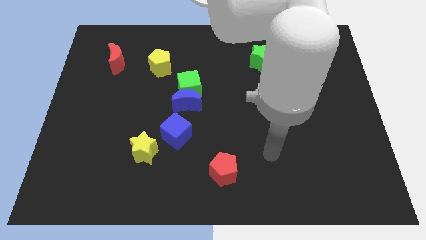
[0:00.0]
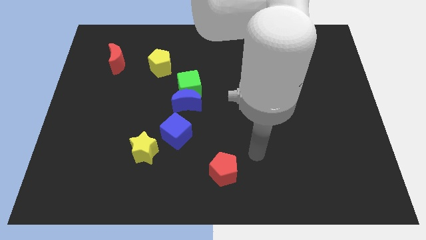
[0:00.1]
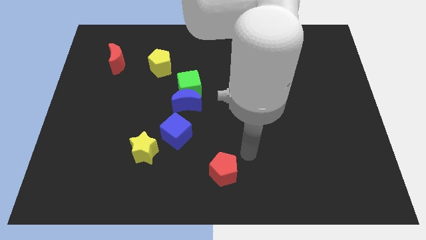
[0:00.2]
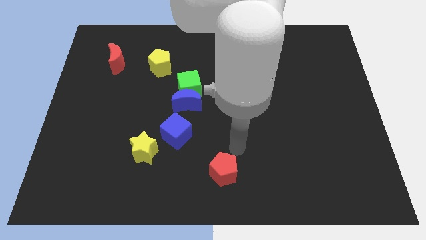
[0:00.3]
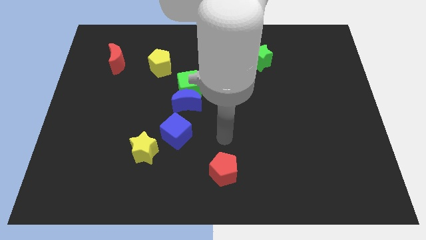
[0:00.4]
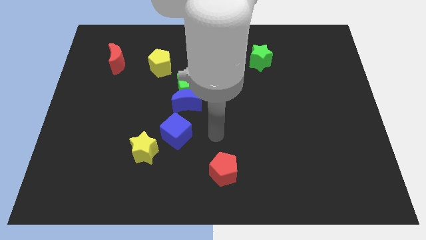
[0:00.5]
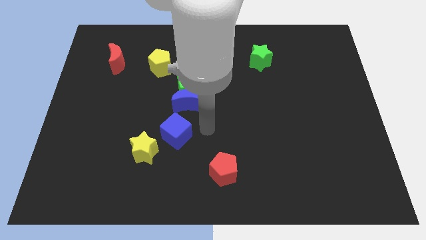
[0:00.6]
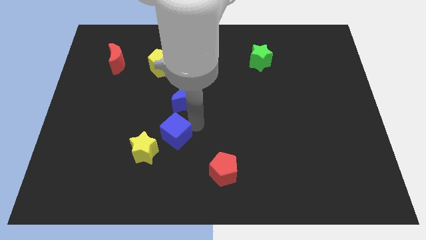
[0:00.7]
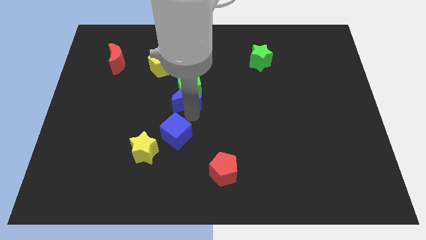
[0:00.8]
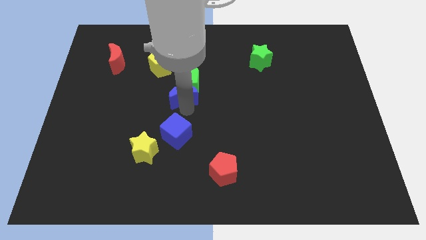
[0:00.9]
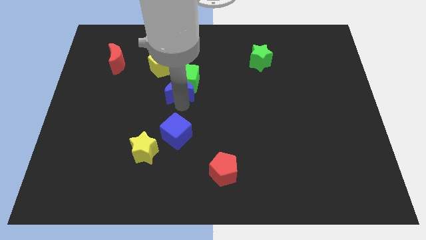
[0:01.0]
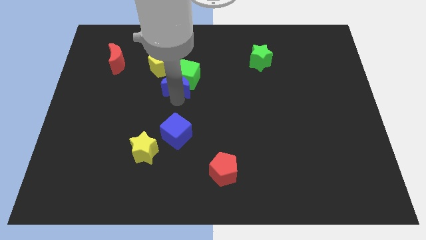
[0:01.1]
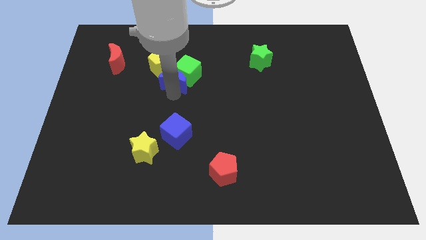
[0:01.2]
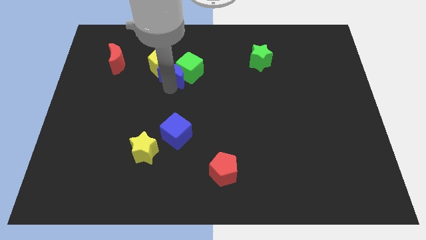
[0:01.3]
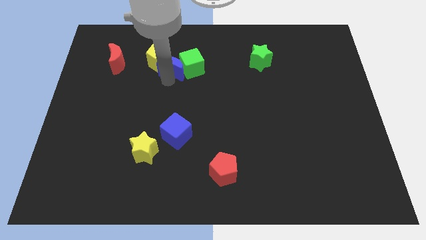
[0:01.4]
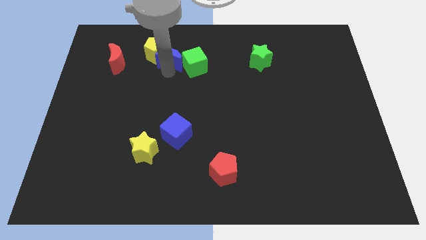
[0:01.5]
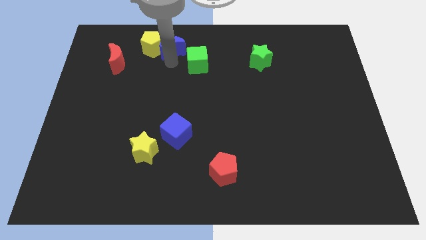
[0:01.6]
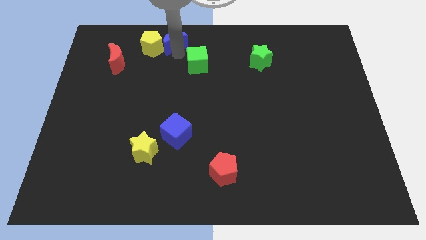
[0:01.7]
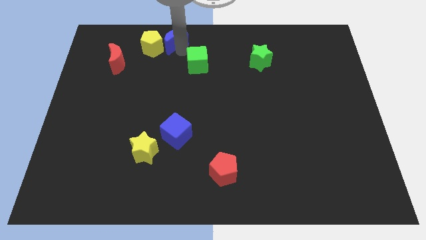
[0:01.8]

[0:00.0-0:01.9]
pull the green cube apart from the blue moon

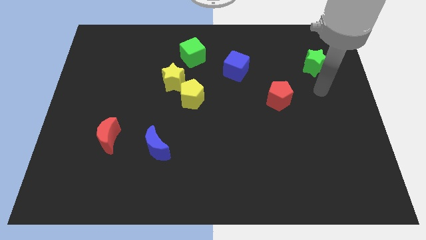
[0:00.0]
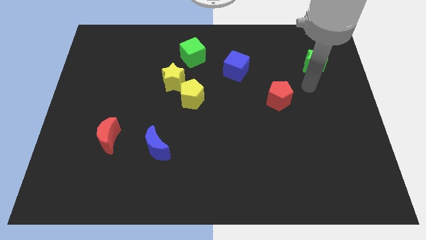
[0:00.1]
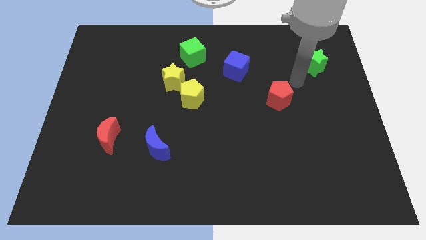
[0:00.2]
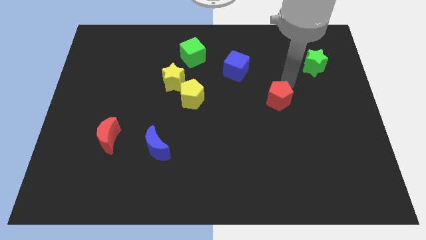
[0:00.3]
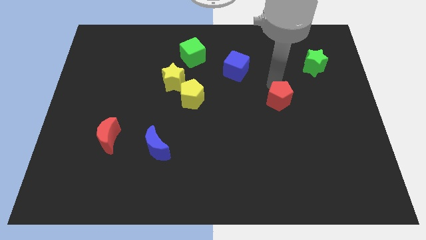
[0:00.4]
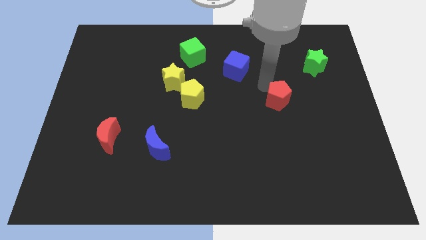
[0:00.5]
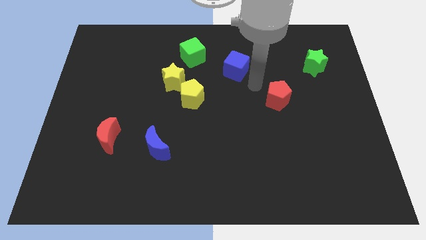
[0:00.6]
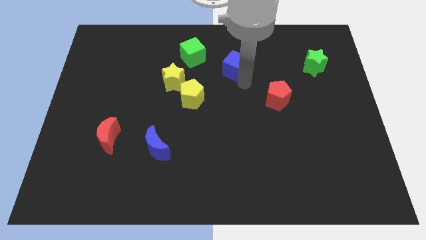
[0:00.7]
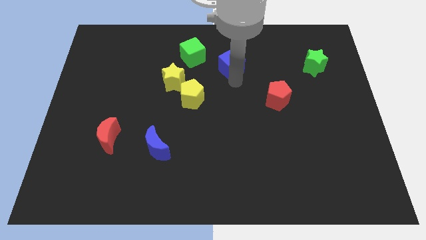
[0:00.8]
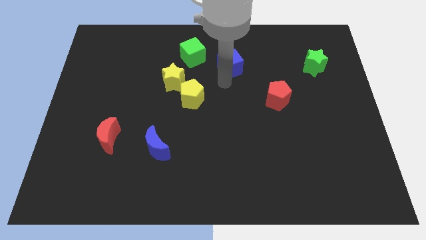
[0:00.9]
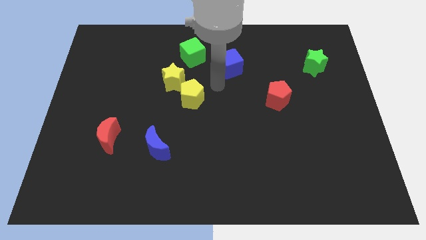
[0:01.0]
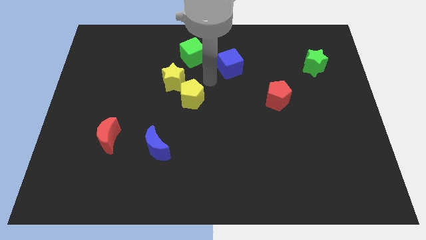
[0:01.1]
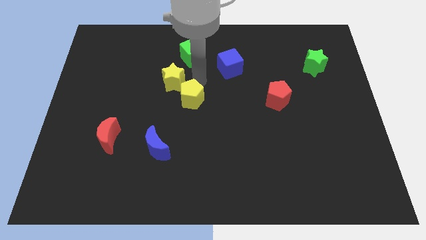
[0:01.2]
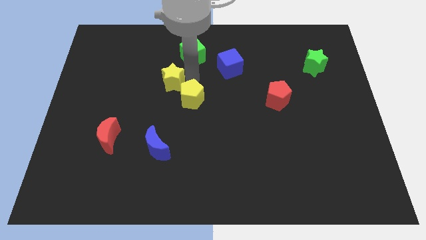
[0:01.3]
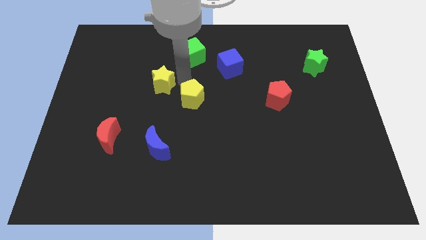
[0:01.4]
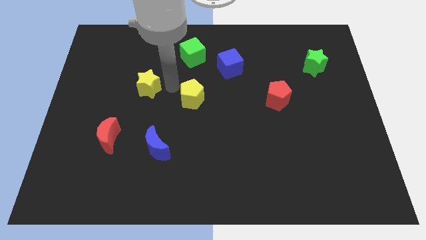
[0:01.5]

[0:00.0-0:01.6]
pull the yellow pentagon apart from the yellow star

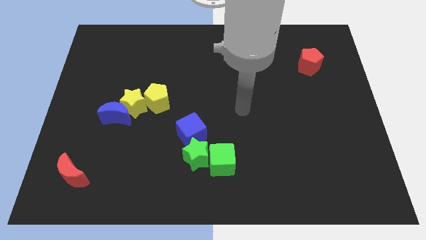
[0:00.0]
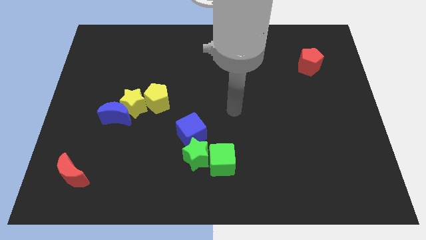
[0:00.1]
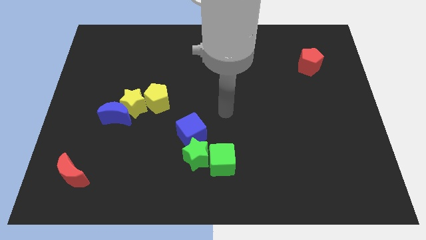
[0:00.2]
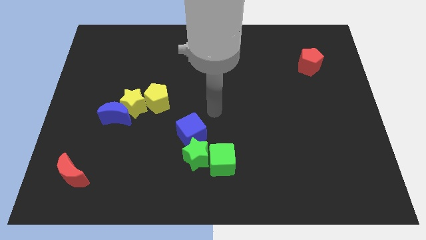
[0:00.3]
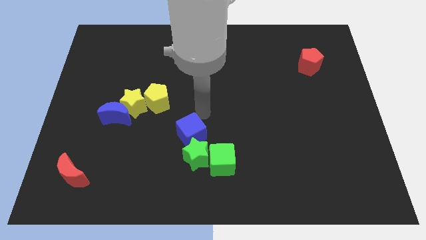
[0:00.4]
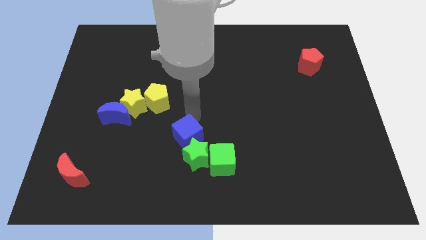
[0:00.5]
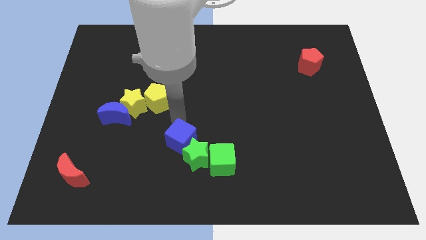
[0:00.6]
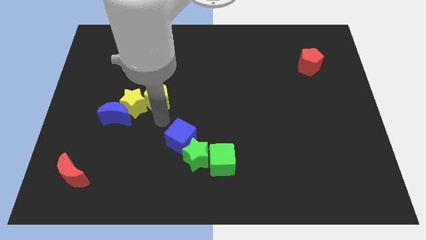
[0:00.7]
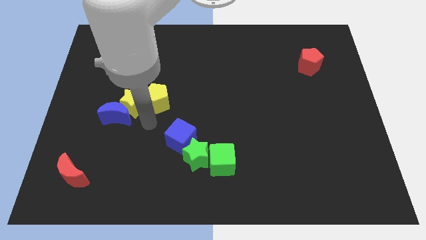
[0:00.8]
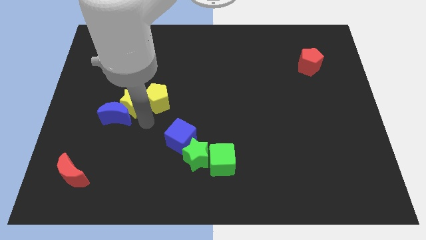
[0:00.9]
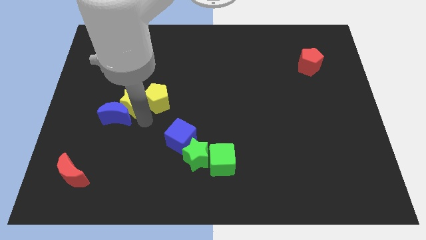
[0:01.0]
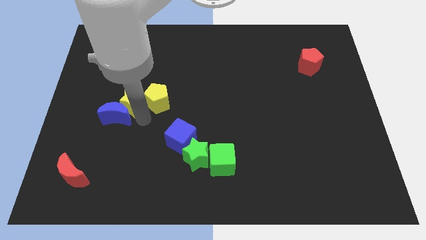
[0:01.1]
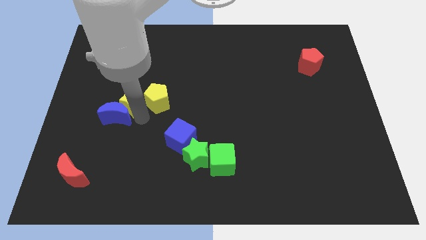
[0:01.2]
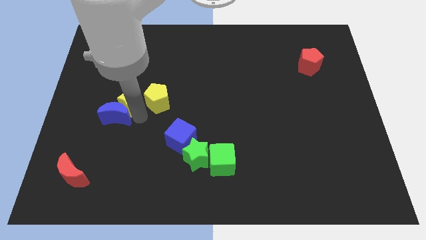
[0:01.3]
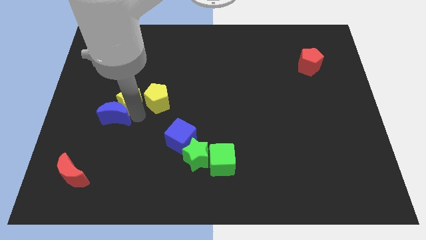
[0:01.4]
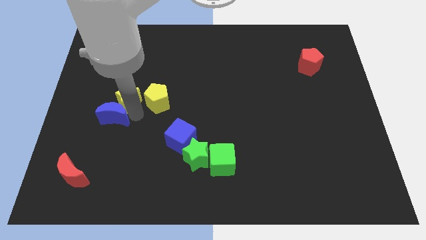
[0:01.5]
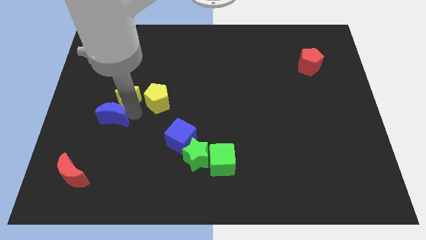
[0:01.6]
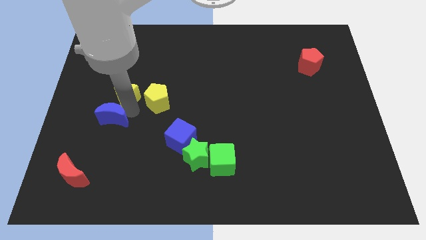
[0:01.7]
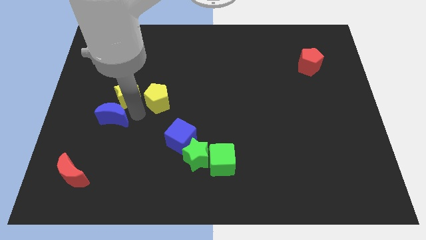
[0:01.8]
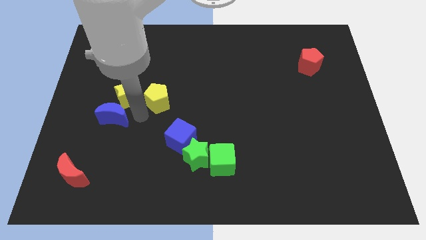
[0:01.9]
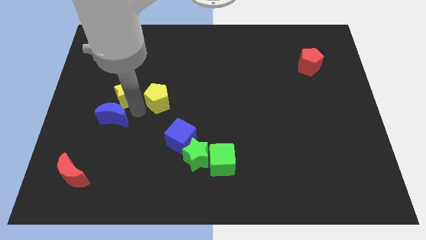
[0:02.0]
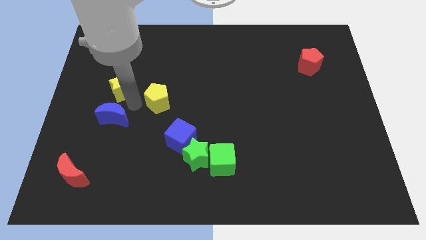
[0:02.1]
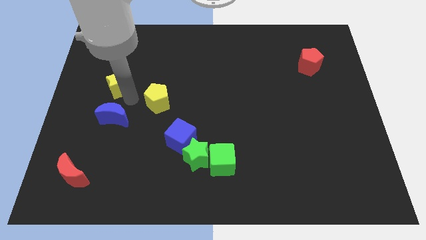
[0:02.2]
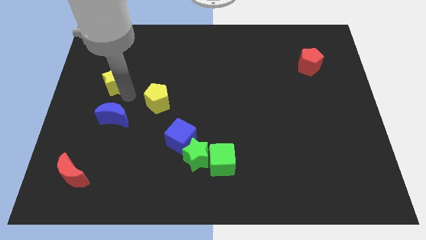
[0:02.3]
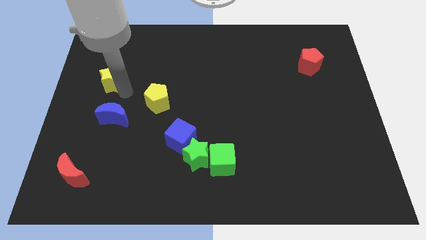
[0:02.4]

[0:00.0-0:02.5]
separate the yellow star from the blue moon and yellow pentagon

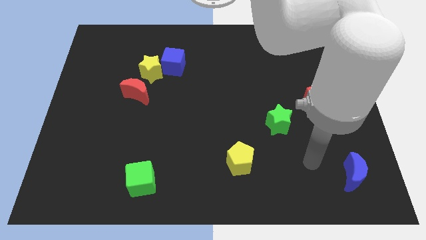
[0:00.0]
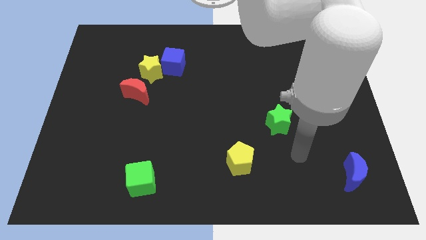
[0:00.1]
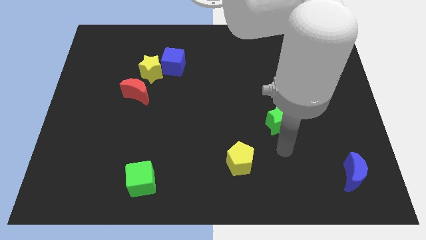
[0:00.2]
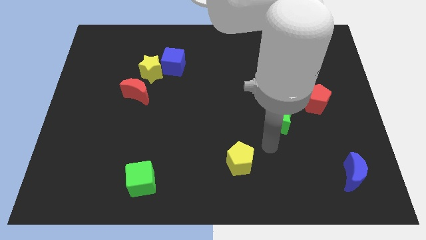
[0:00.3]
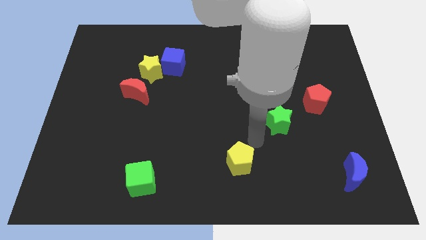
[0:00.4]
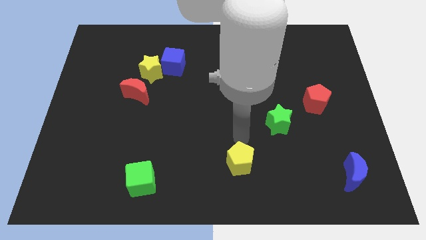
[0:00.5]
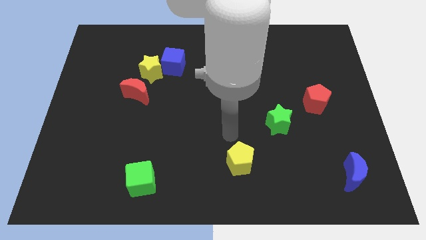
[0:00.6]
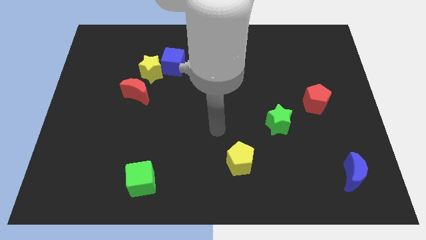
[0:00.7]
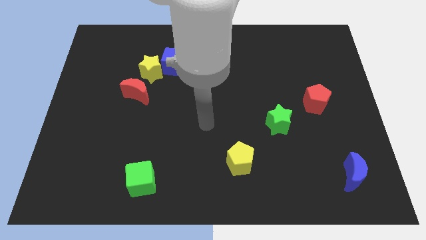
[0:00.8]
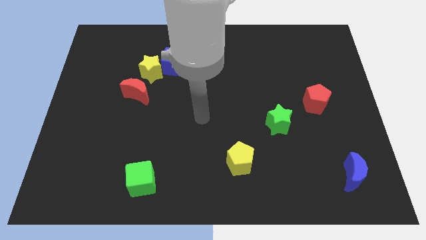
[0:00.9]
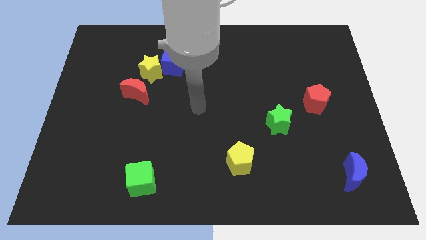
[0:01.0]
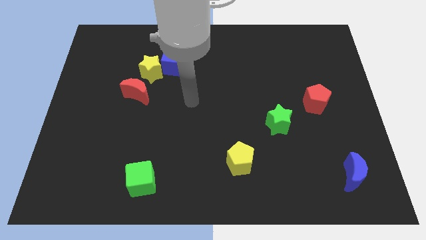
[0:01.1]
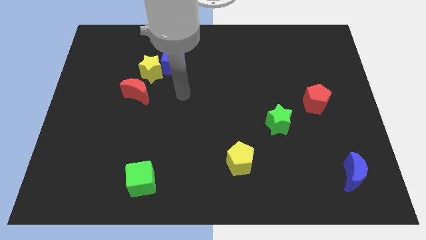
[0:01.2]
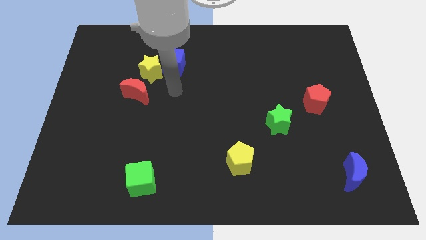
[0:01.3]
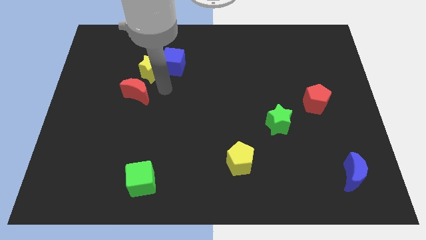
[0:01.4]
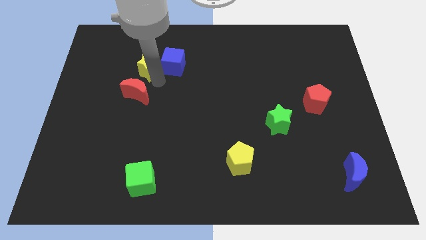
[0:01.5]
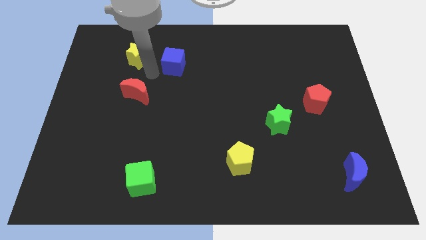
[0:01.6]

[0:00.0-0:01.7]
move the blue cube away from the yellow star

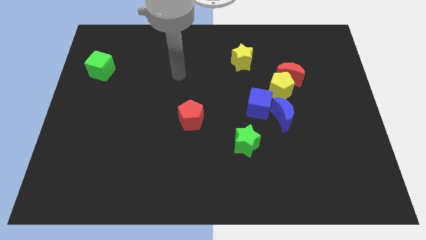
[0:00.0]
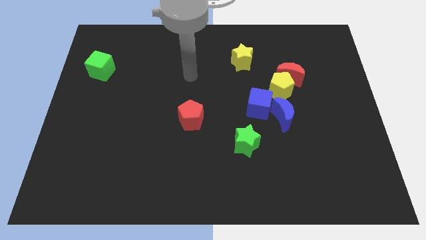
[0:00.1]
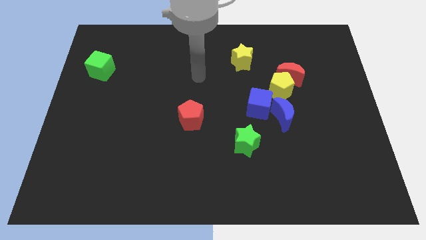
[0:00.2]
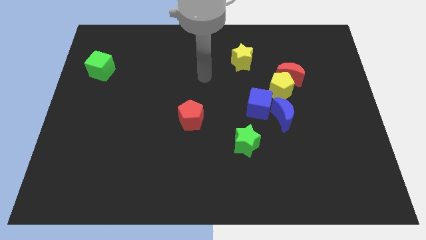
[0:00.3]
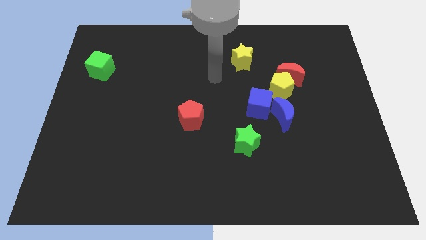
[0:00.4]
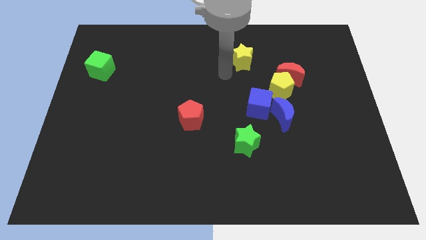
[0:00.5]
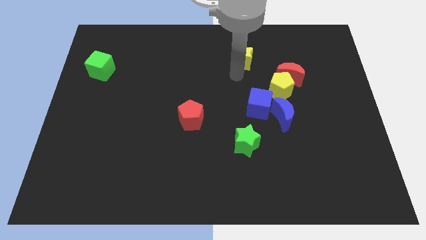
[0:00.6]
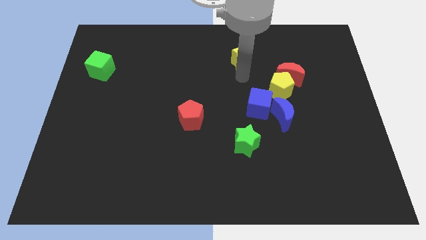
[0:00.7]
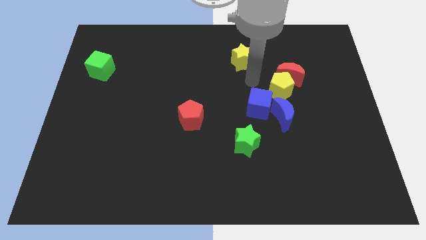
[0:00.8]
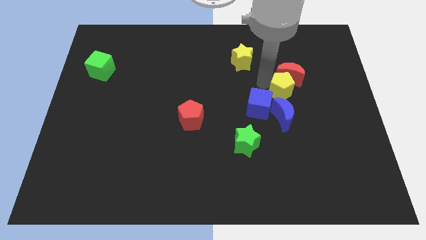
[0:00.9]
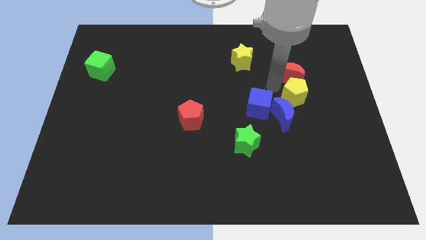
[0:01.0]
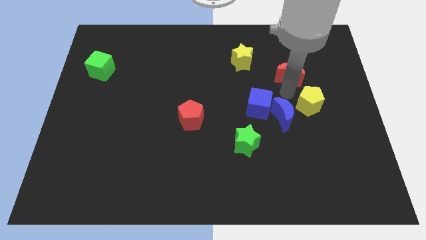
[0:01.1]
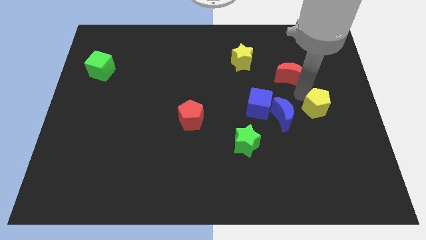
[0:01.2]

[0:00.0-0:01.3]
pull the red moon apart from the yellow pentagon

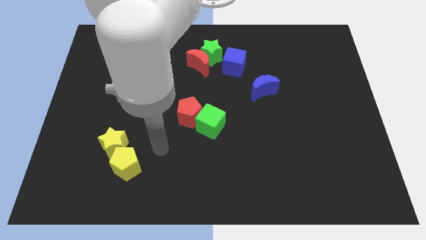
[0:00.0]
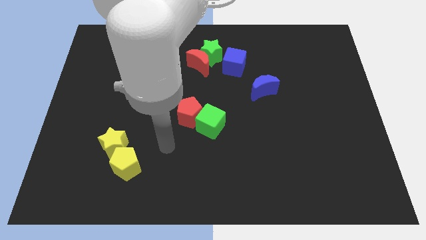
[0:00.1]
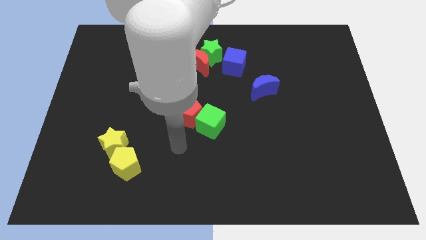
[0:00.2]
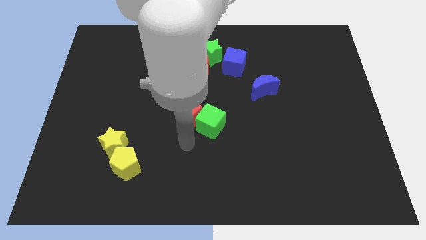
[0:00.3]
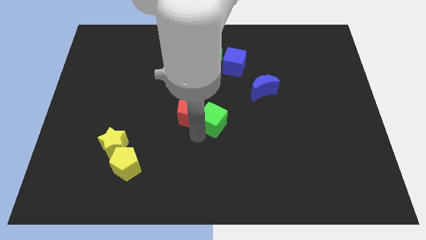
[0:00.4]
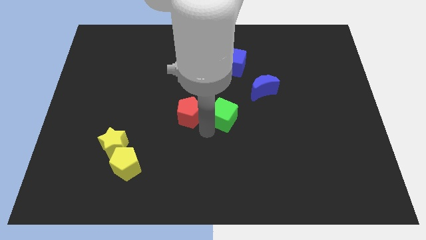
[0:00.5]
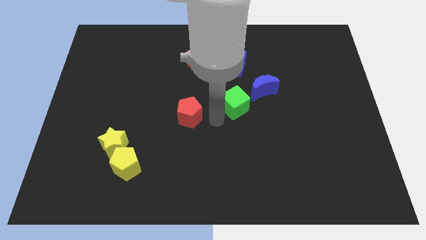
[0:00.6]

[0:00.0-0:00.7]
separate the red pentagon from the green cube
